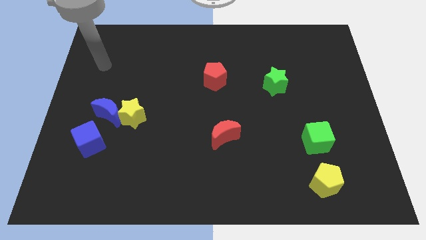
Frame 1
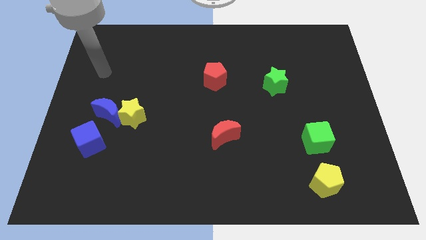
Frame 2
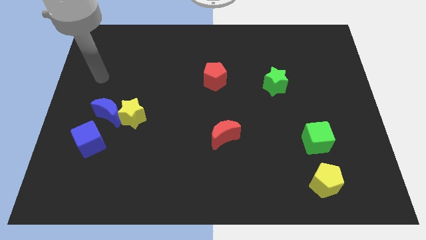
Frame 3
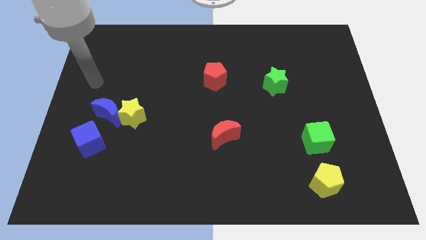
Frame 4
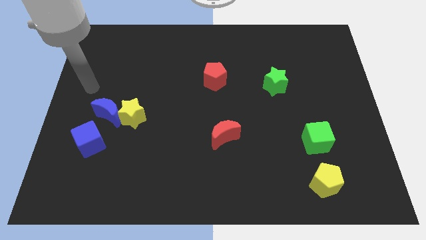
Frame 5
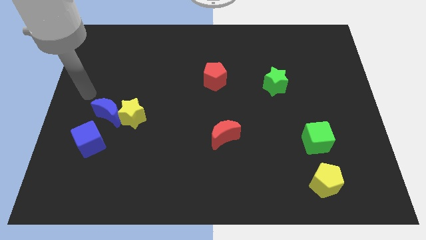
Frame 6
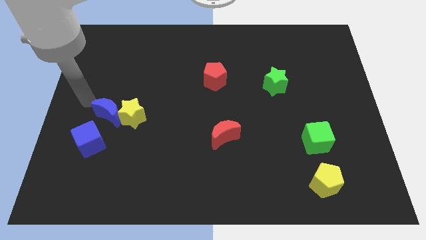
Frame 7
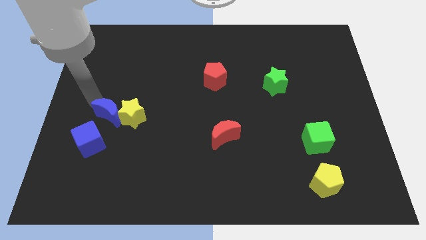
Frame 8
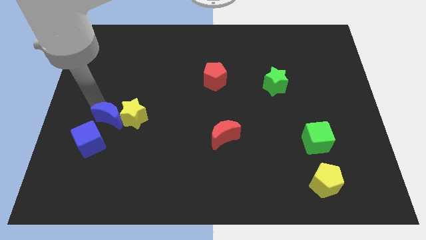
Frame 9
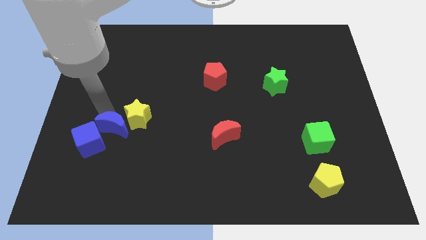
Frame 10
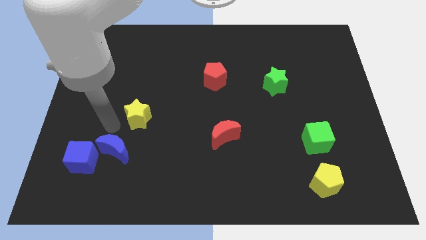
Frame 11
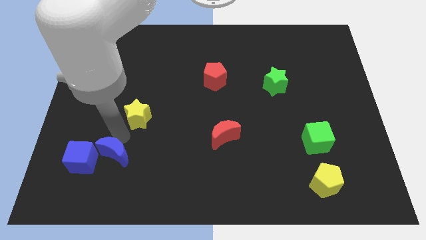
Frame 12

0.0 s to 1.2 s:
move the yellow star away from the blue moon

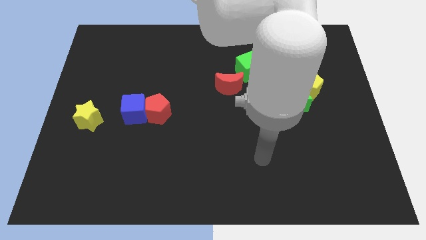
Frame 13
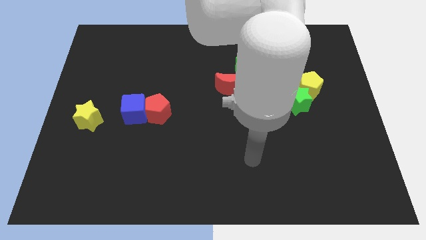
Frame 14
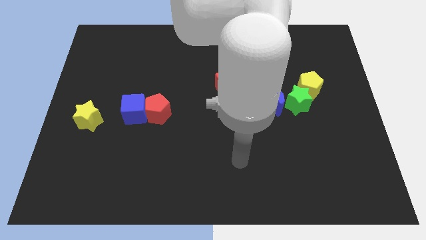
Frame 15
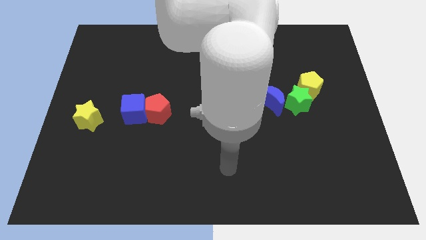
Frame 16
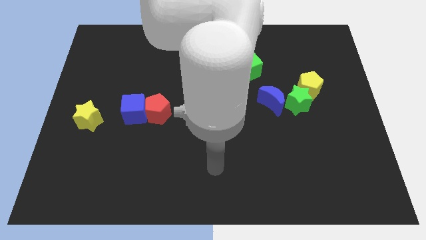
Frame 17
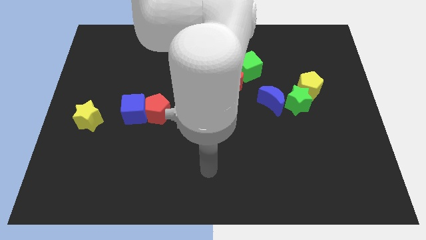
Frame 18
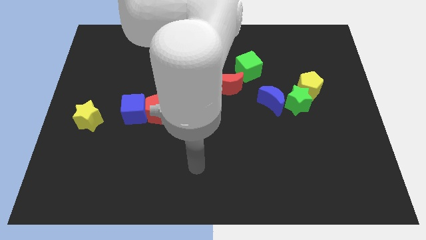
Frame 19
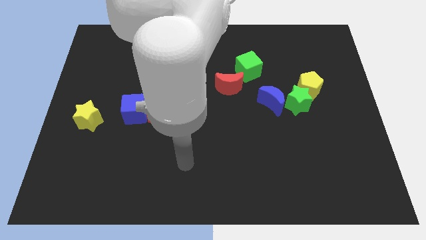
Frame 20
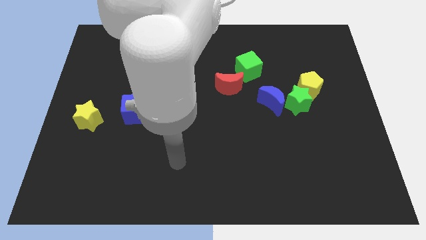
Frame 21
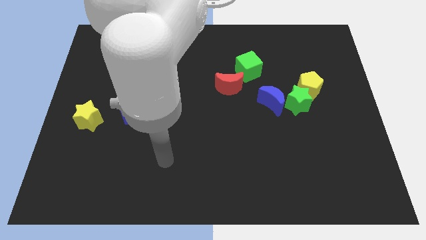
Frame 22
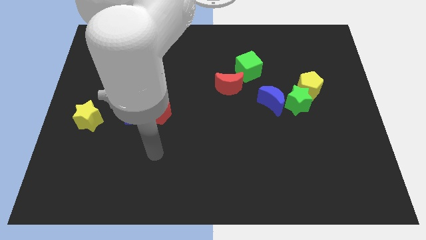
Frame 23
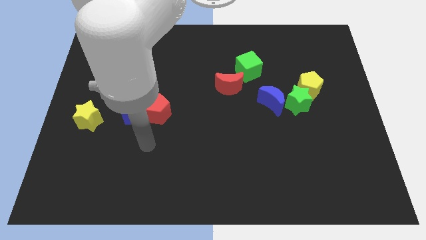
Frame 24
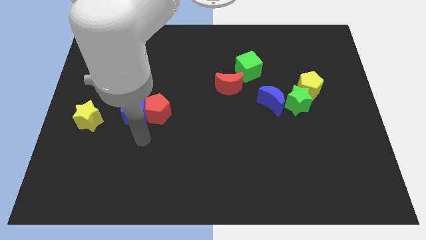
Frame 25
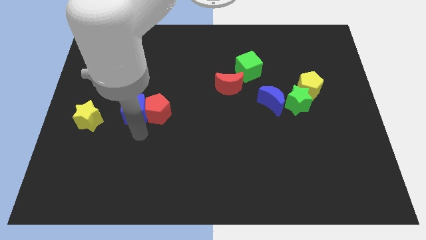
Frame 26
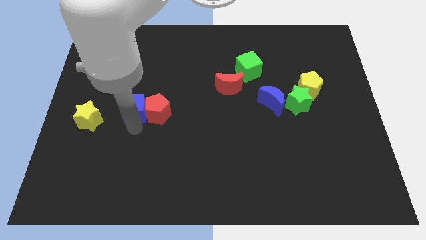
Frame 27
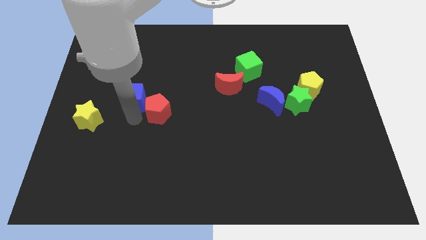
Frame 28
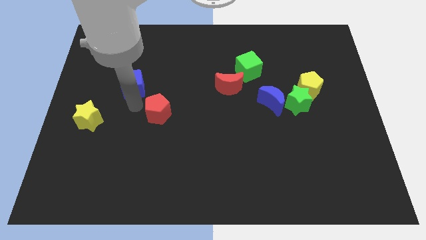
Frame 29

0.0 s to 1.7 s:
separate the red pentagon from the blue cube

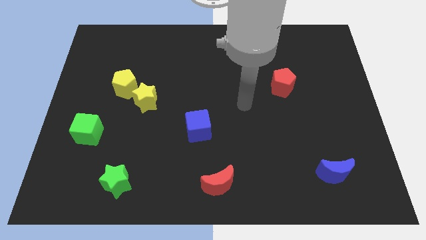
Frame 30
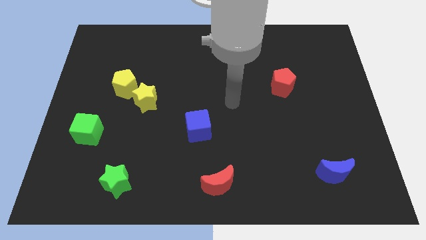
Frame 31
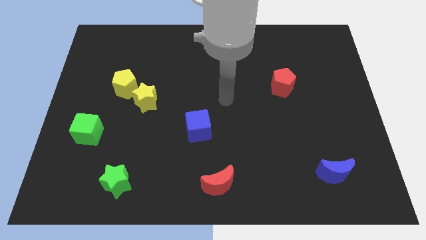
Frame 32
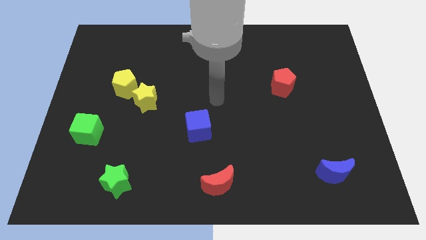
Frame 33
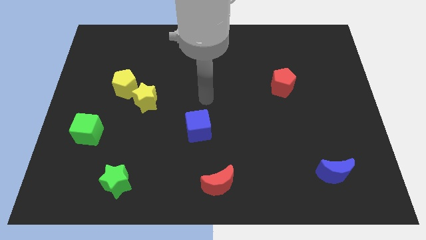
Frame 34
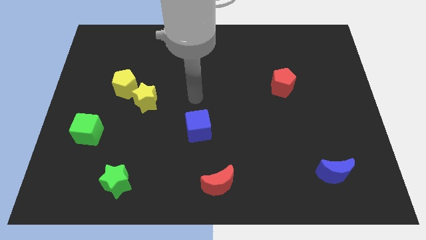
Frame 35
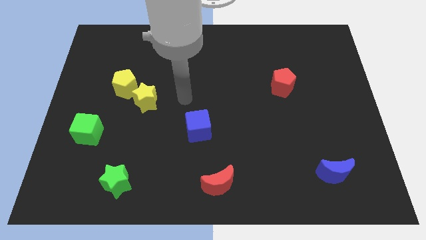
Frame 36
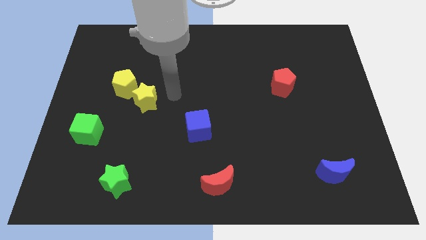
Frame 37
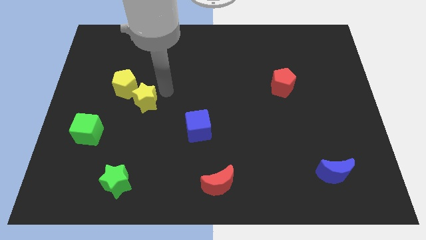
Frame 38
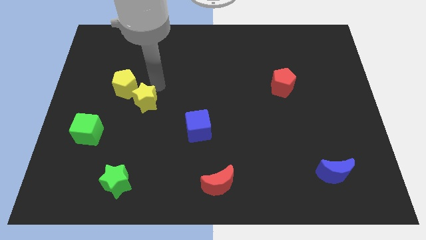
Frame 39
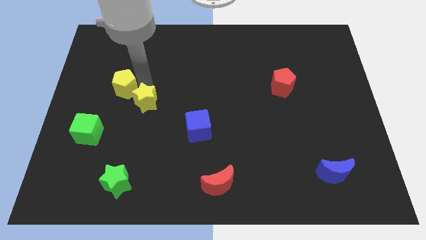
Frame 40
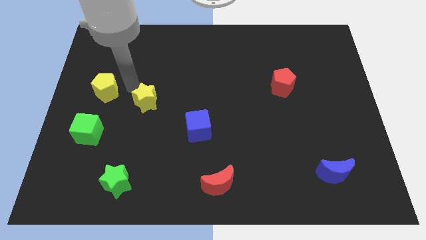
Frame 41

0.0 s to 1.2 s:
move the yellow star away from the yellow pentagon

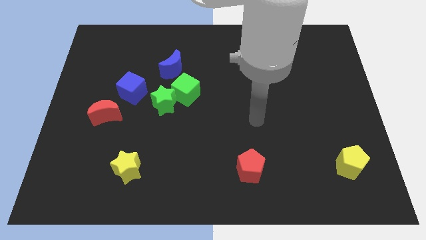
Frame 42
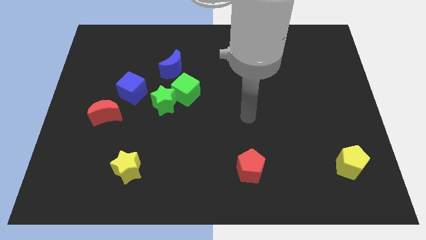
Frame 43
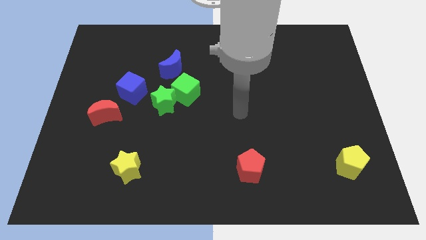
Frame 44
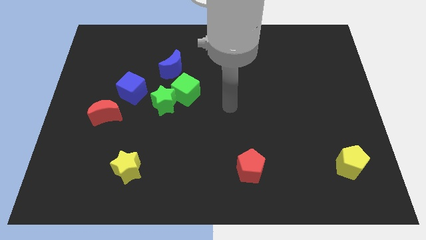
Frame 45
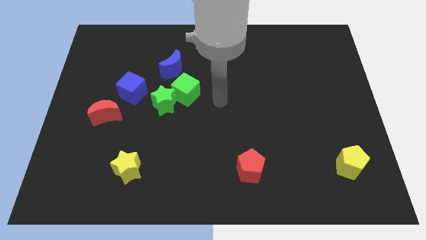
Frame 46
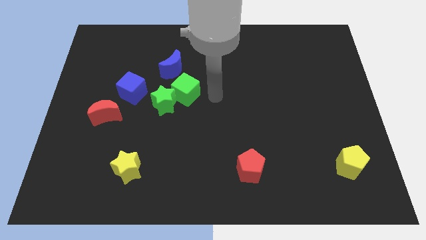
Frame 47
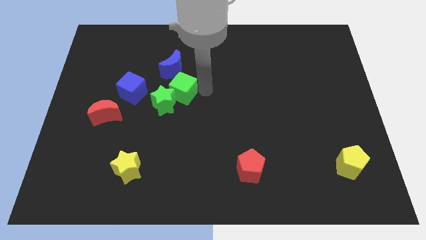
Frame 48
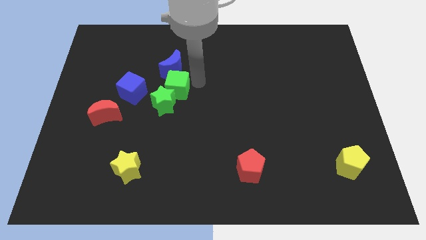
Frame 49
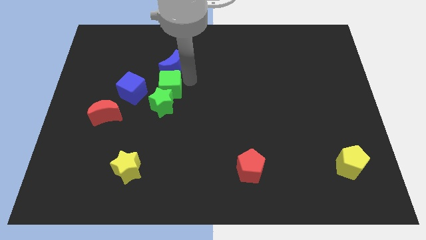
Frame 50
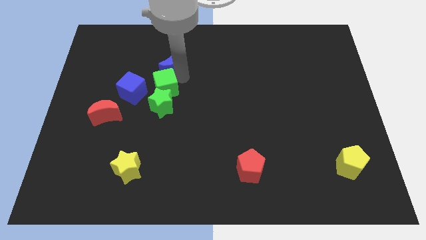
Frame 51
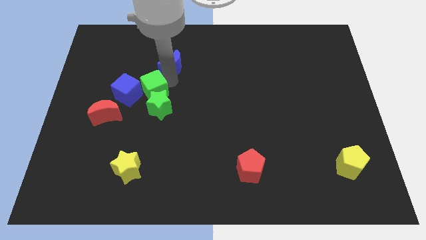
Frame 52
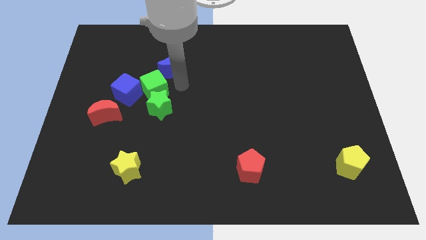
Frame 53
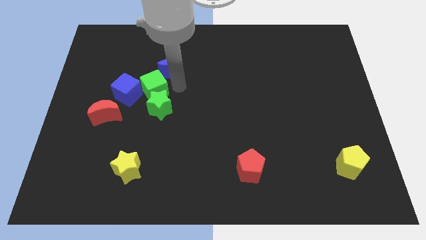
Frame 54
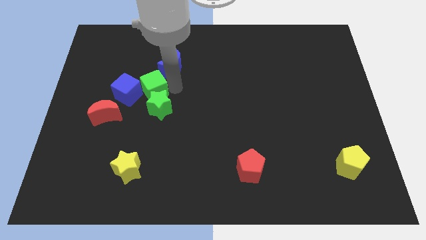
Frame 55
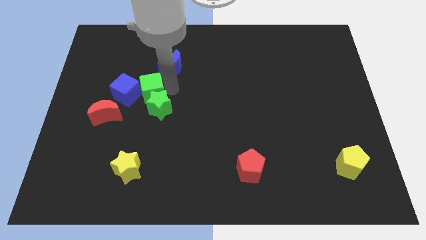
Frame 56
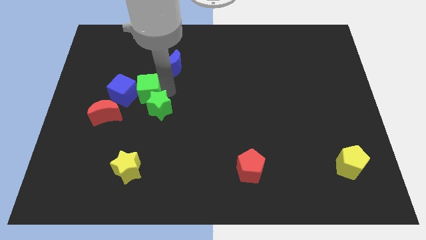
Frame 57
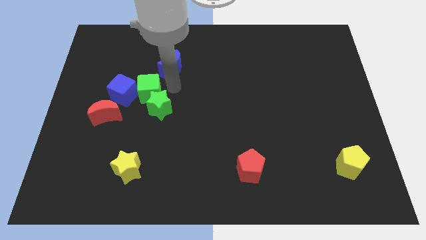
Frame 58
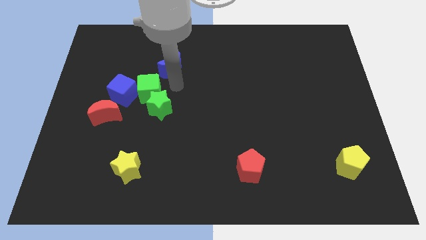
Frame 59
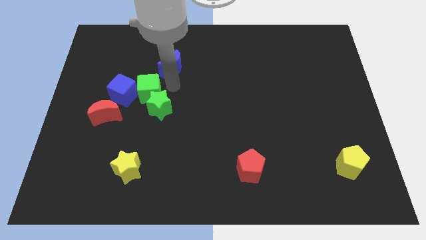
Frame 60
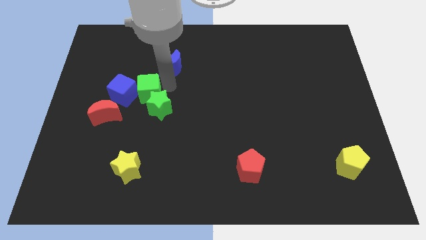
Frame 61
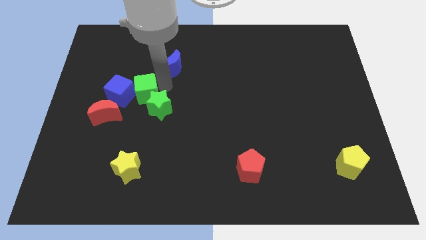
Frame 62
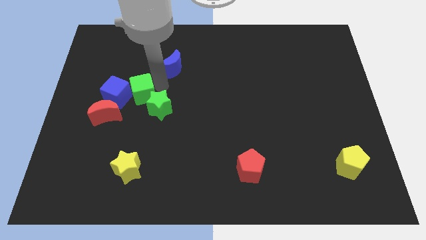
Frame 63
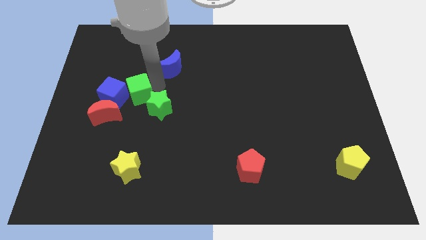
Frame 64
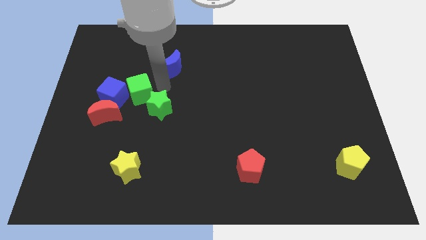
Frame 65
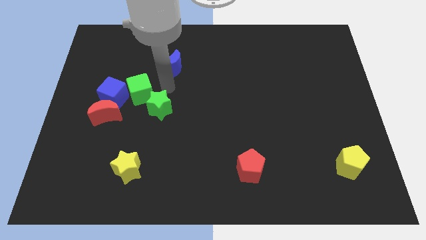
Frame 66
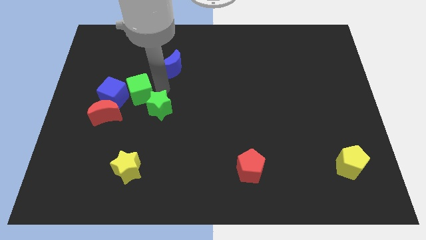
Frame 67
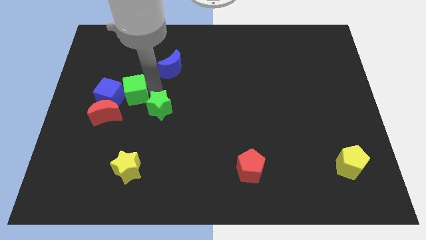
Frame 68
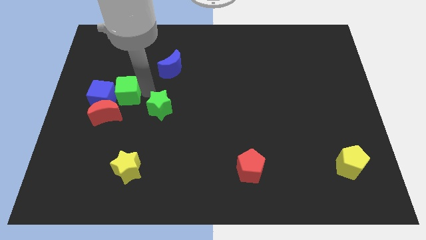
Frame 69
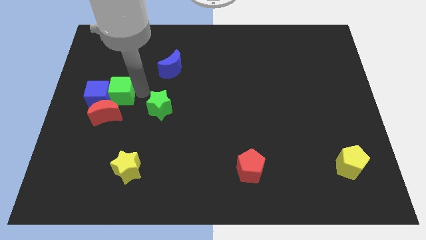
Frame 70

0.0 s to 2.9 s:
move the green cube away from the green star and blue moon

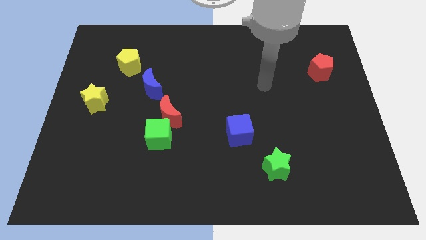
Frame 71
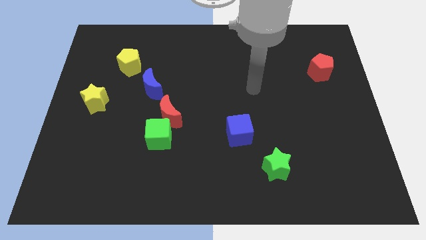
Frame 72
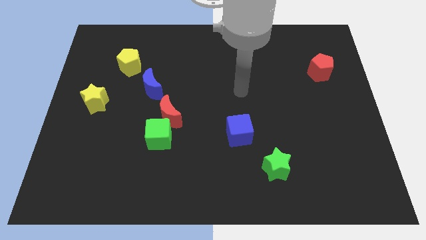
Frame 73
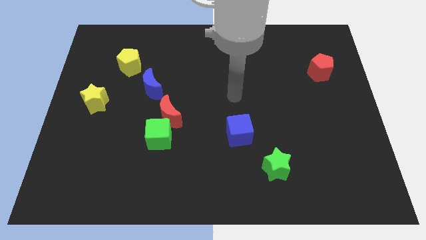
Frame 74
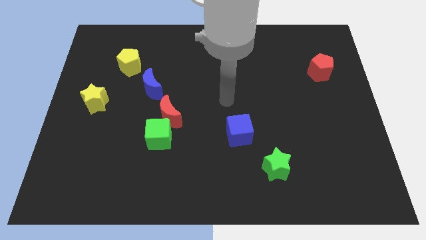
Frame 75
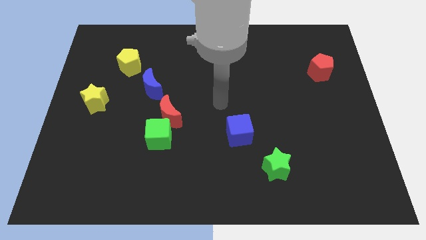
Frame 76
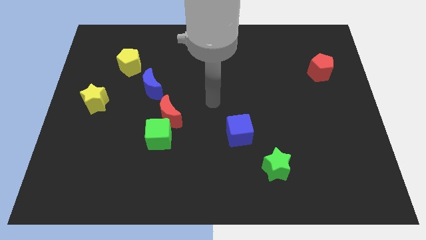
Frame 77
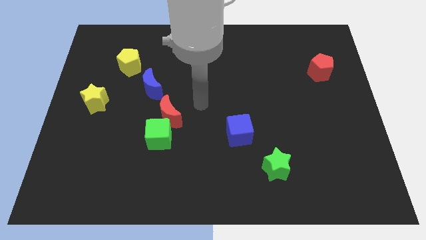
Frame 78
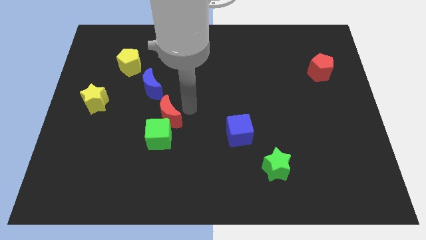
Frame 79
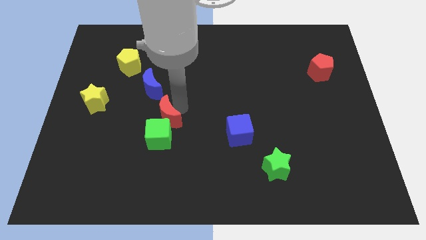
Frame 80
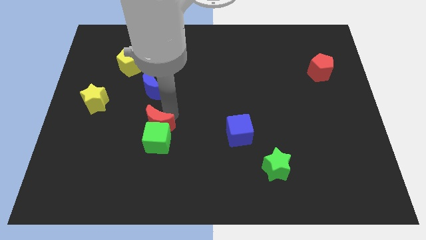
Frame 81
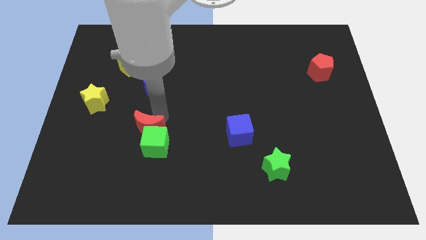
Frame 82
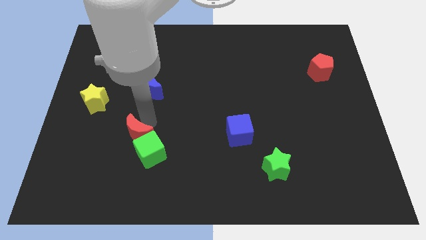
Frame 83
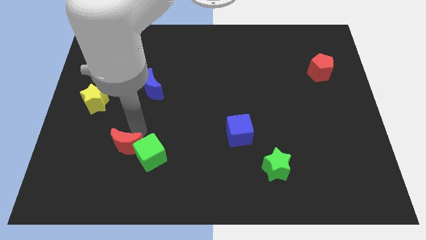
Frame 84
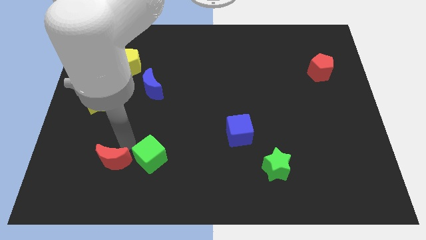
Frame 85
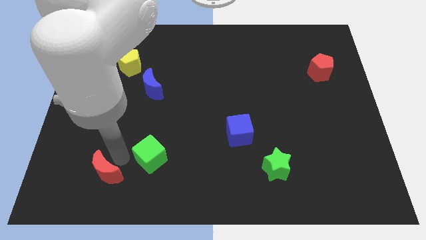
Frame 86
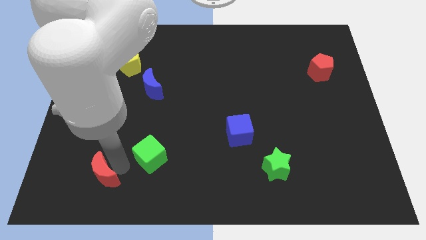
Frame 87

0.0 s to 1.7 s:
pull the green cube apart from the red moon

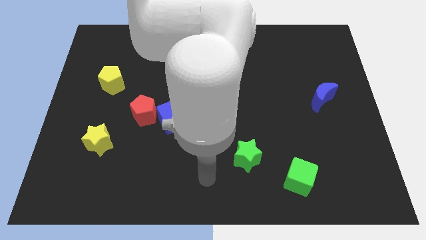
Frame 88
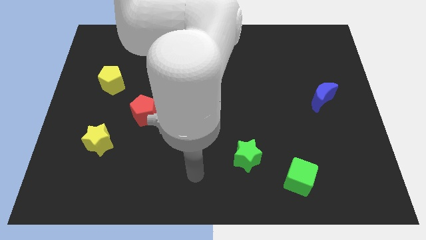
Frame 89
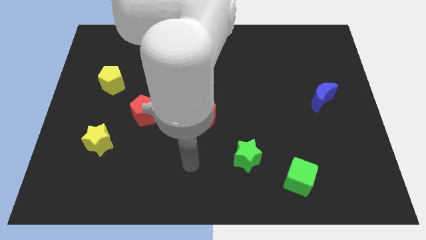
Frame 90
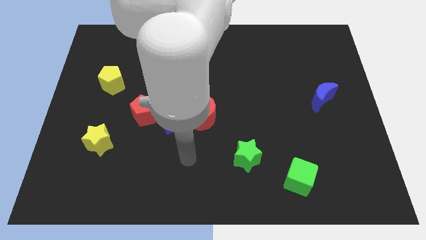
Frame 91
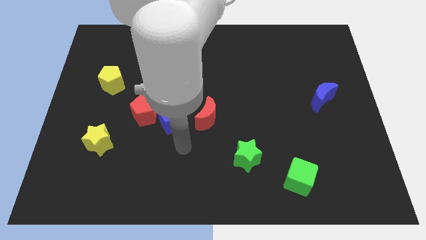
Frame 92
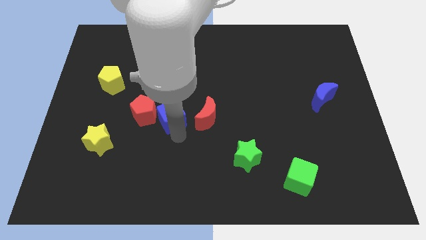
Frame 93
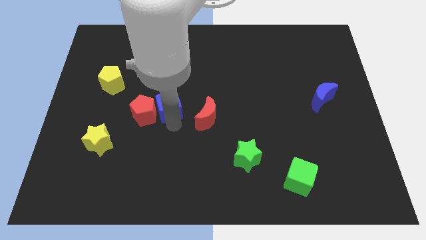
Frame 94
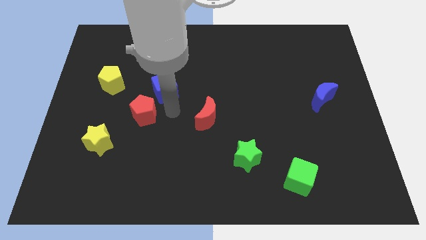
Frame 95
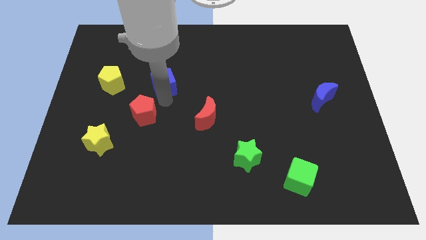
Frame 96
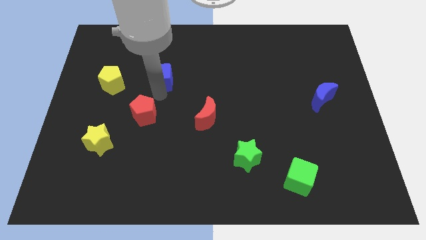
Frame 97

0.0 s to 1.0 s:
move the red pentagon away from the blue cube
